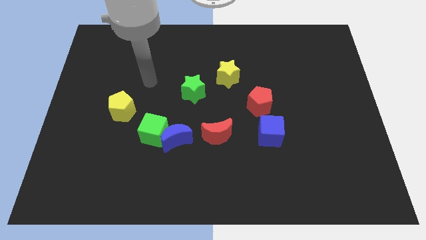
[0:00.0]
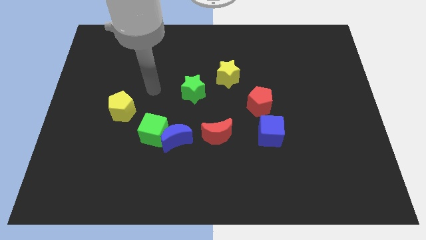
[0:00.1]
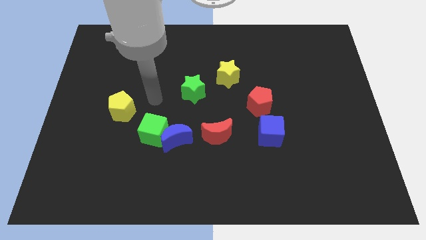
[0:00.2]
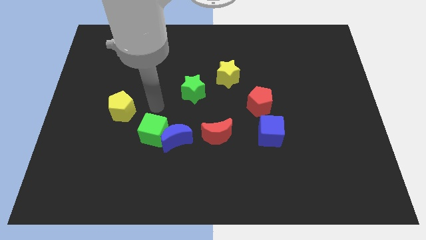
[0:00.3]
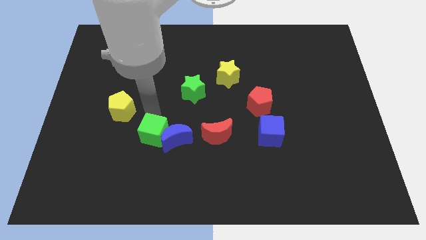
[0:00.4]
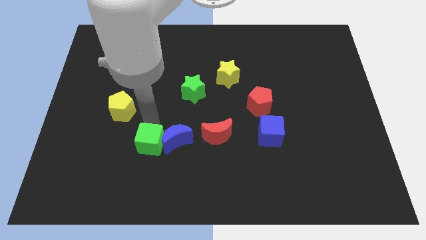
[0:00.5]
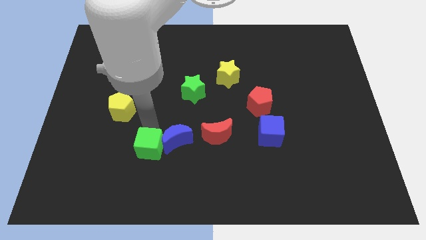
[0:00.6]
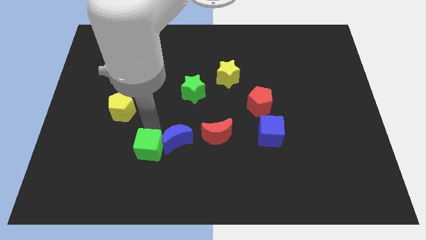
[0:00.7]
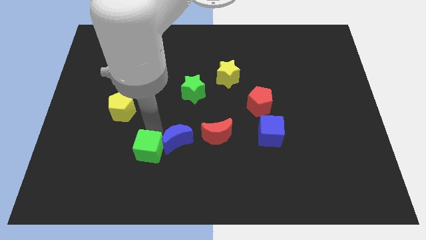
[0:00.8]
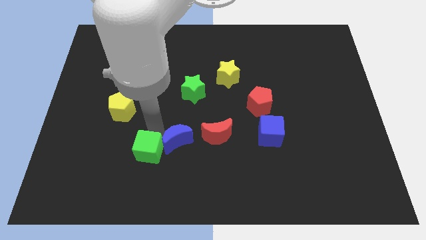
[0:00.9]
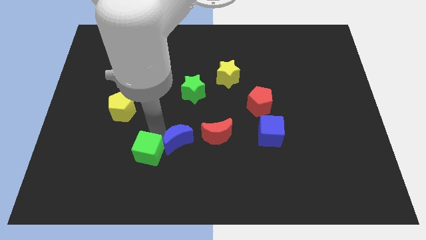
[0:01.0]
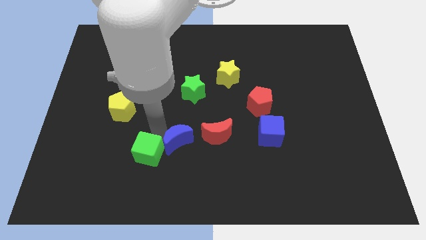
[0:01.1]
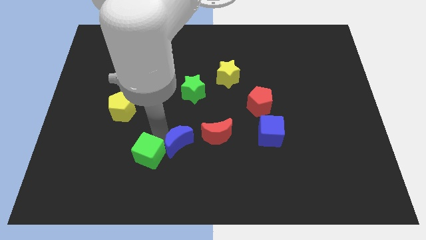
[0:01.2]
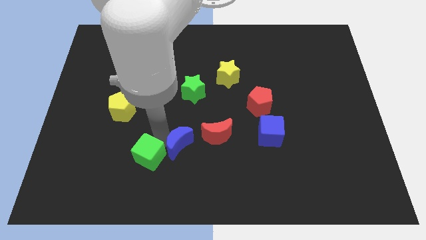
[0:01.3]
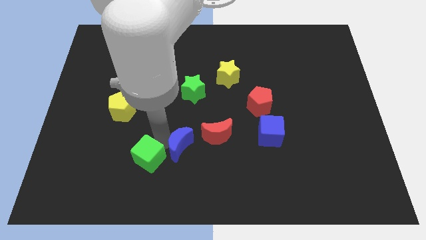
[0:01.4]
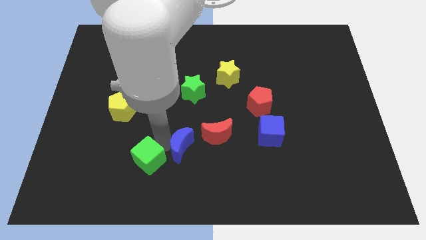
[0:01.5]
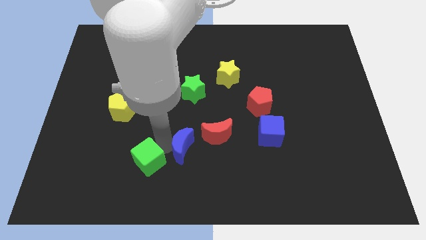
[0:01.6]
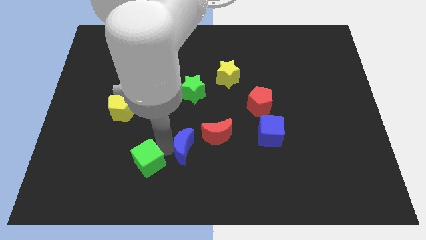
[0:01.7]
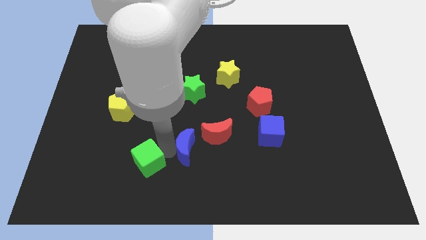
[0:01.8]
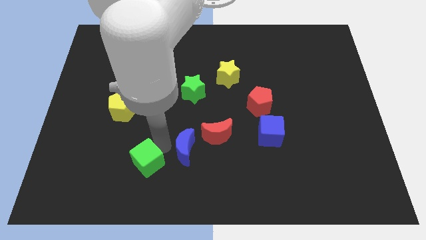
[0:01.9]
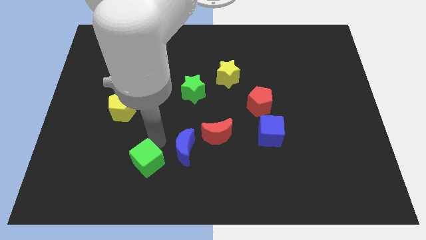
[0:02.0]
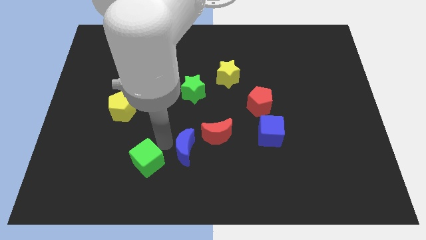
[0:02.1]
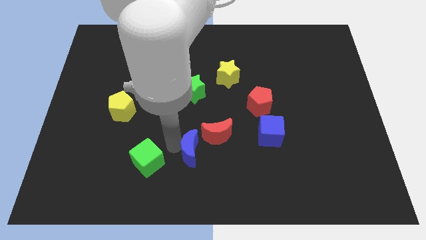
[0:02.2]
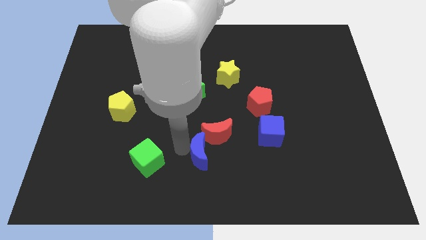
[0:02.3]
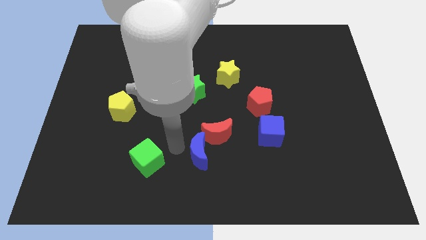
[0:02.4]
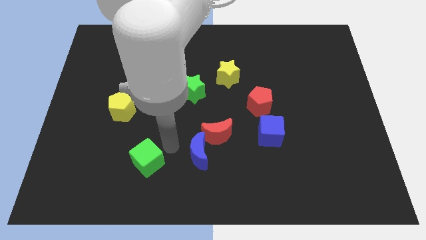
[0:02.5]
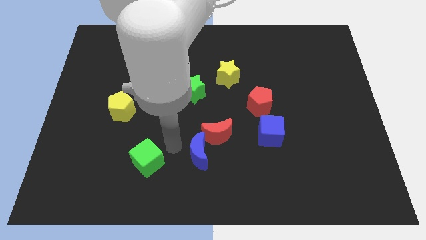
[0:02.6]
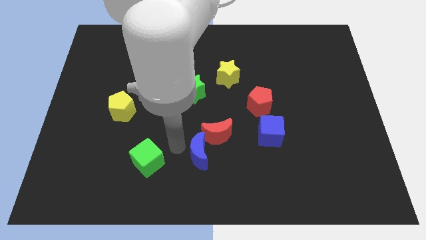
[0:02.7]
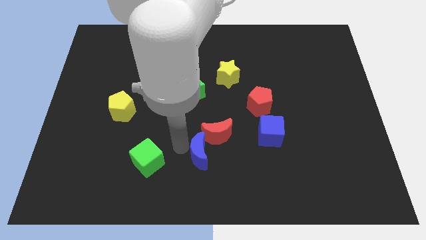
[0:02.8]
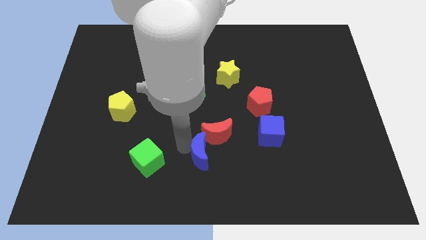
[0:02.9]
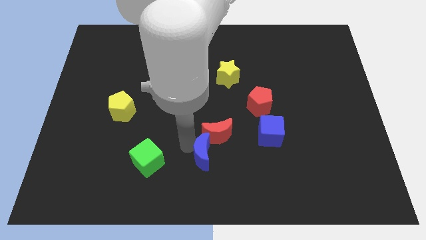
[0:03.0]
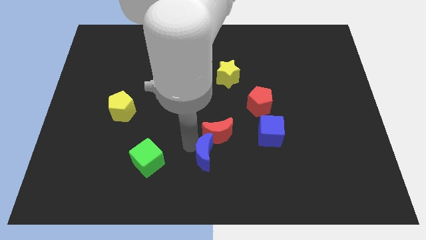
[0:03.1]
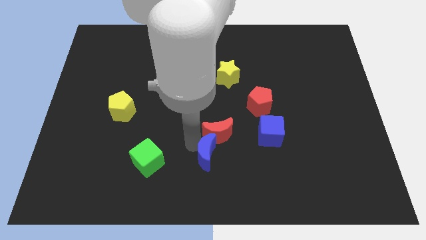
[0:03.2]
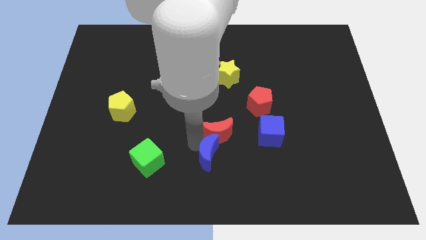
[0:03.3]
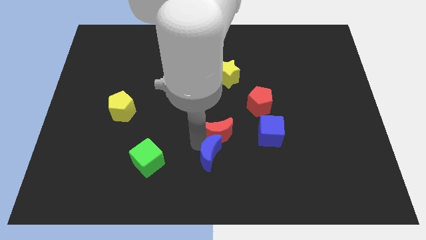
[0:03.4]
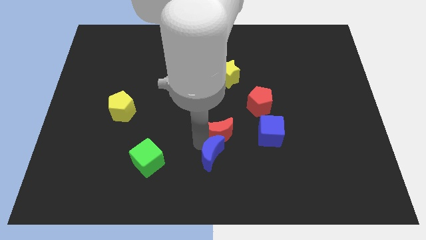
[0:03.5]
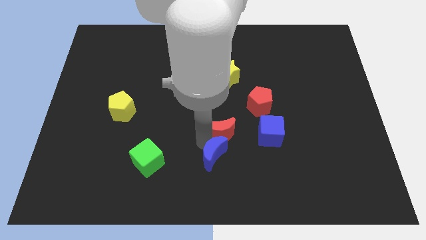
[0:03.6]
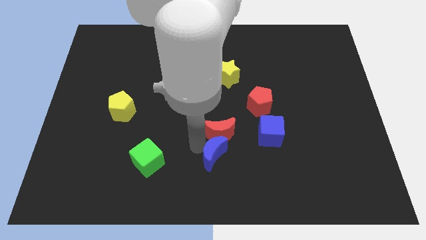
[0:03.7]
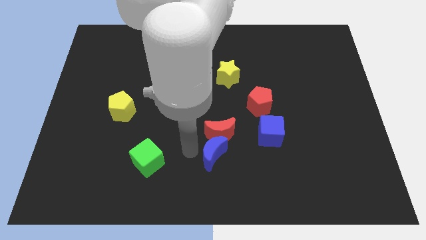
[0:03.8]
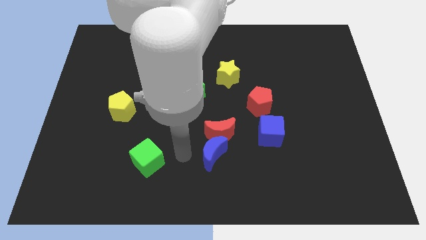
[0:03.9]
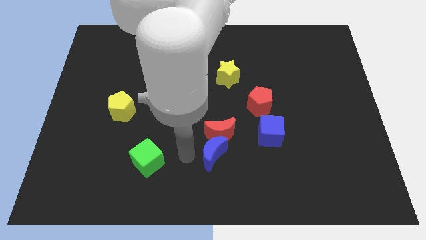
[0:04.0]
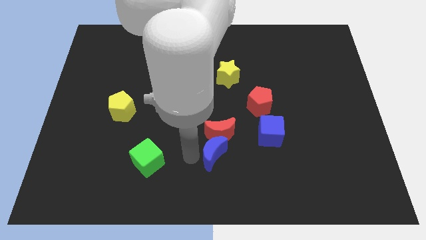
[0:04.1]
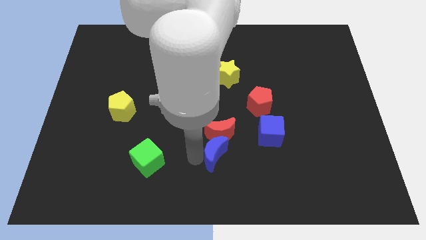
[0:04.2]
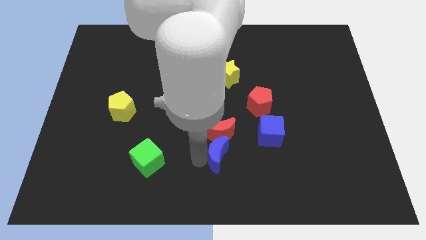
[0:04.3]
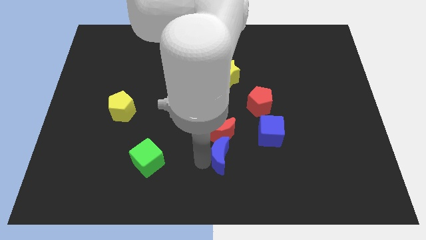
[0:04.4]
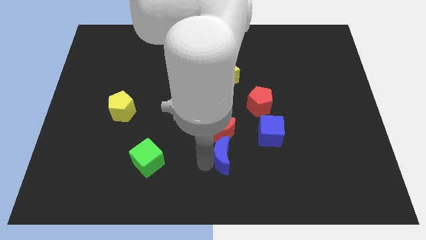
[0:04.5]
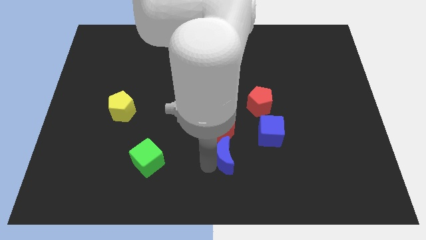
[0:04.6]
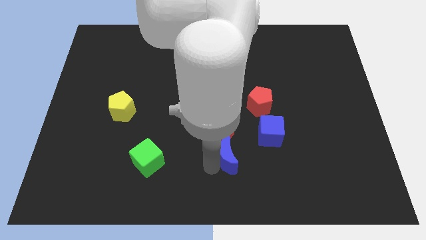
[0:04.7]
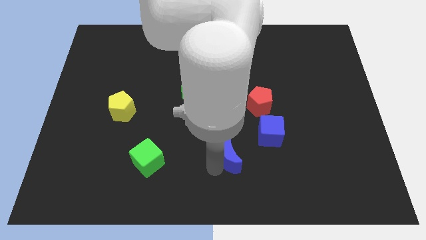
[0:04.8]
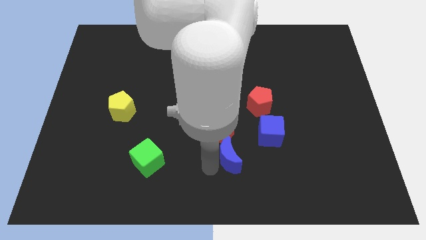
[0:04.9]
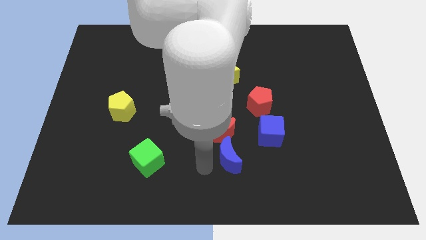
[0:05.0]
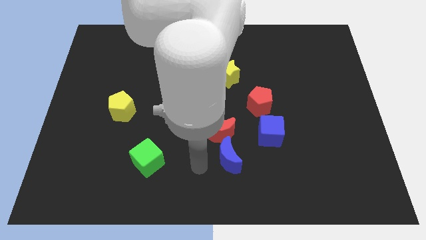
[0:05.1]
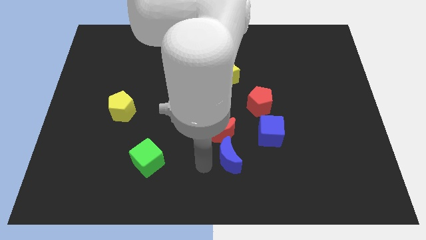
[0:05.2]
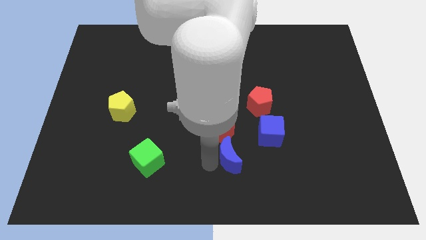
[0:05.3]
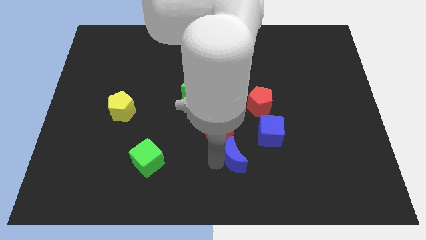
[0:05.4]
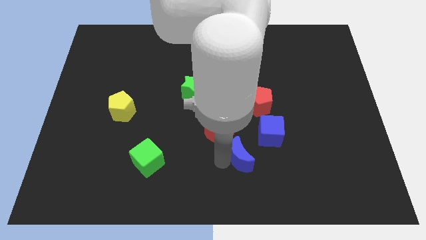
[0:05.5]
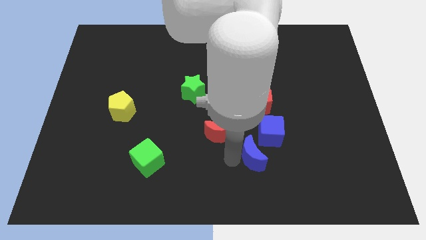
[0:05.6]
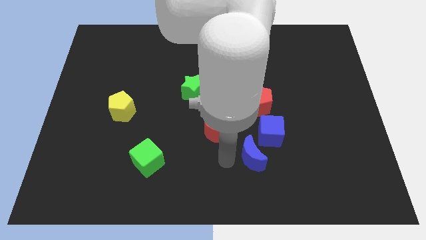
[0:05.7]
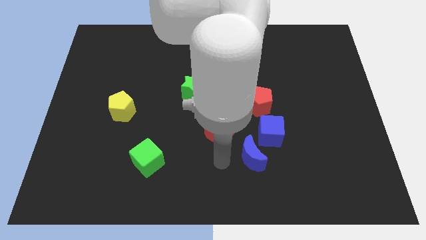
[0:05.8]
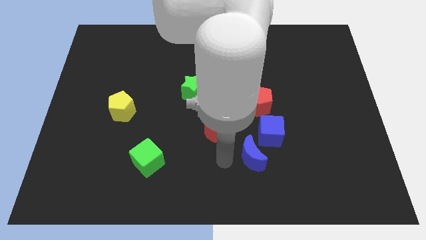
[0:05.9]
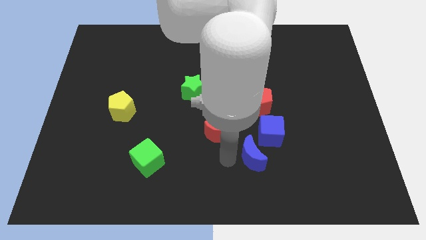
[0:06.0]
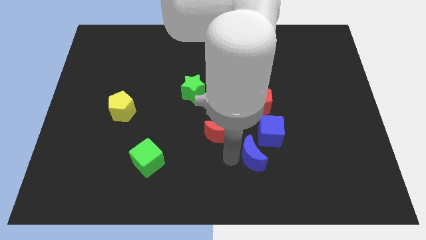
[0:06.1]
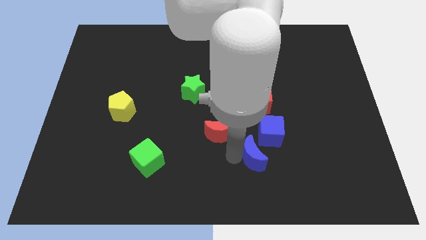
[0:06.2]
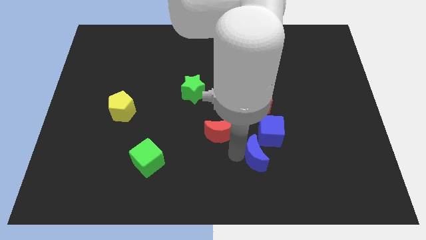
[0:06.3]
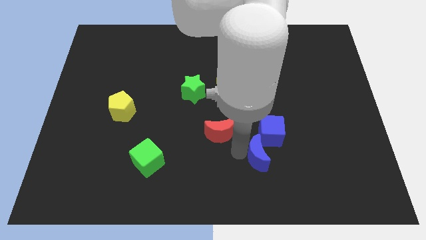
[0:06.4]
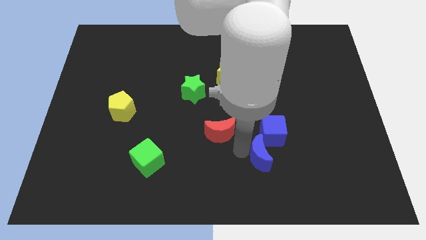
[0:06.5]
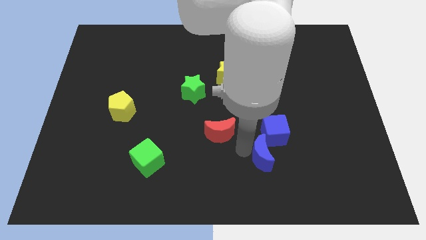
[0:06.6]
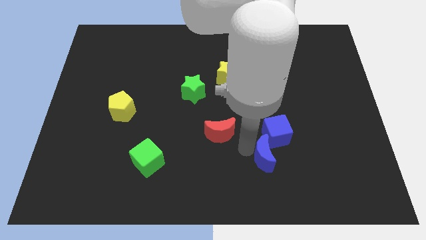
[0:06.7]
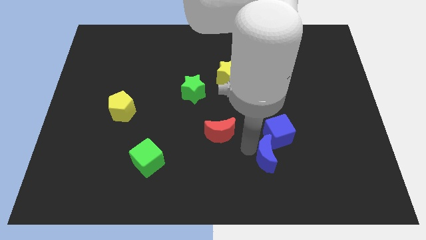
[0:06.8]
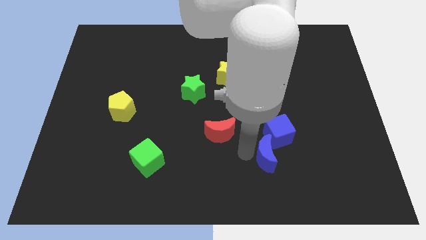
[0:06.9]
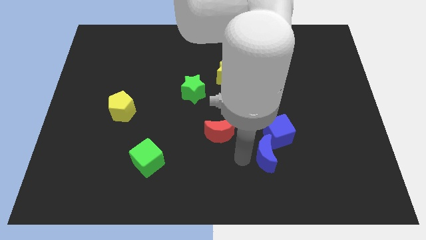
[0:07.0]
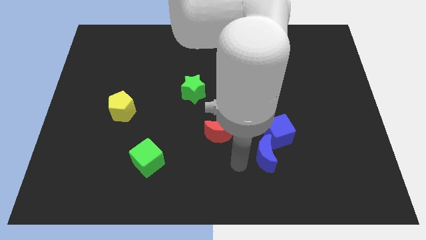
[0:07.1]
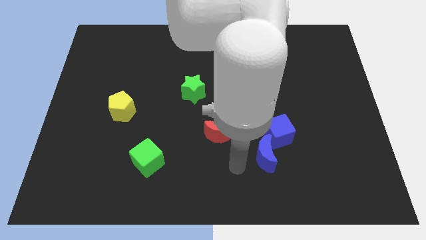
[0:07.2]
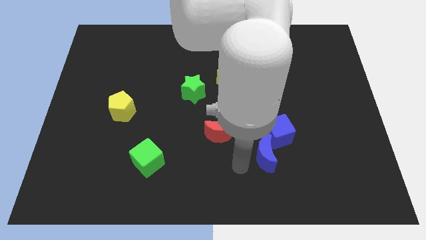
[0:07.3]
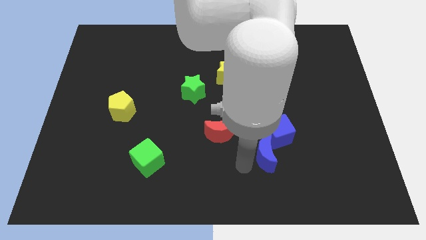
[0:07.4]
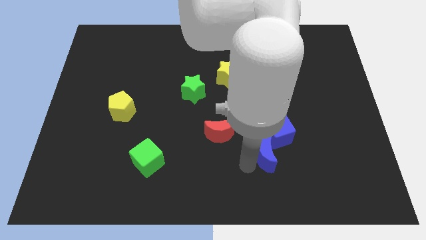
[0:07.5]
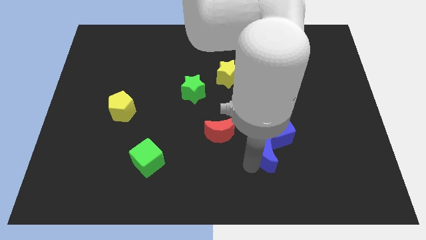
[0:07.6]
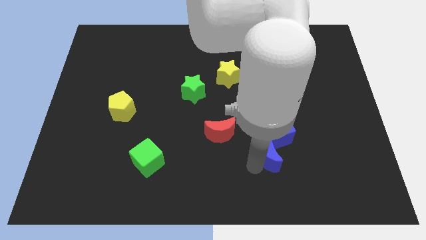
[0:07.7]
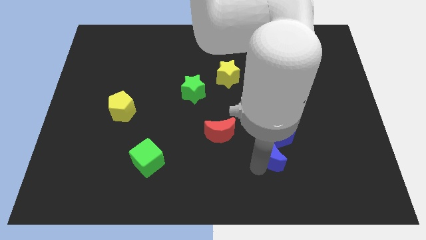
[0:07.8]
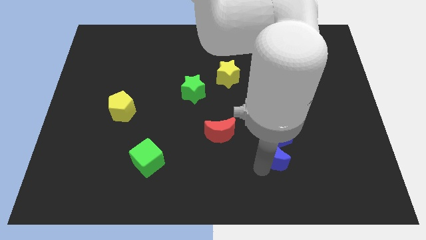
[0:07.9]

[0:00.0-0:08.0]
slide the blue moon to the right
